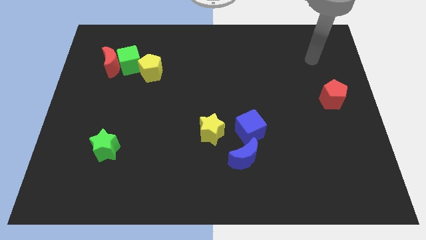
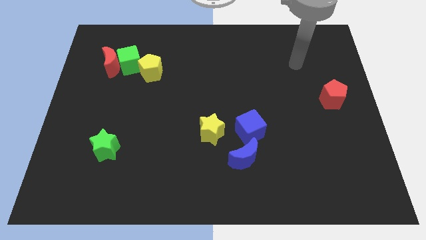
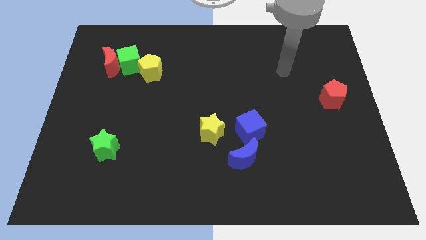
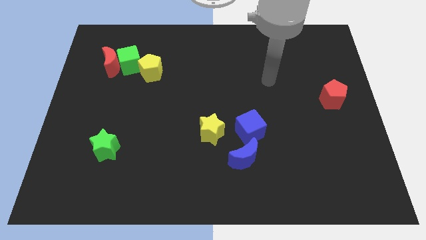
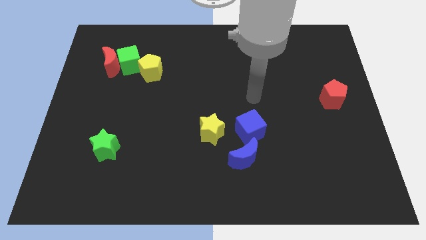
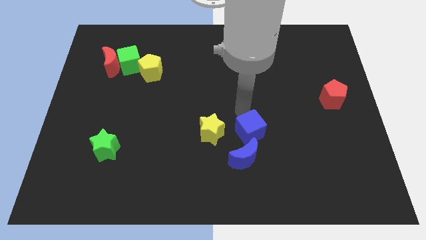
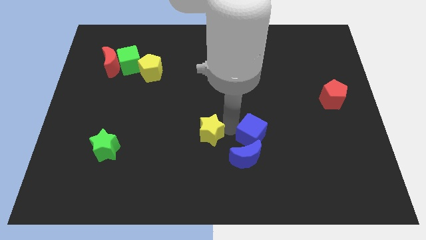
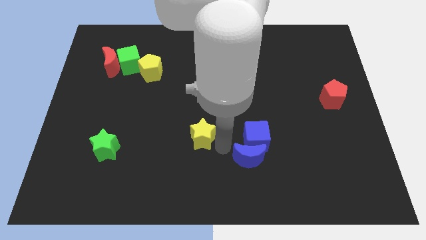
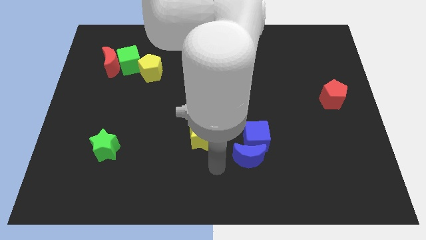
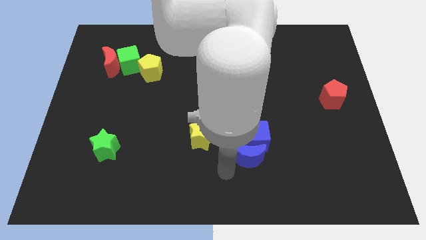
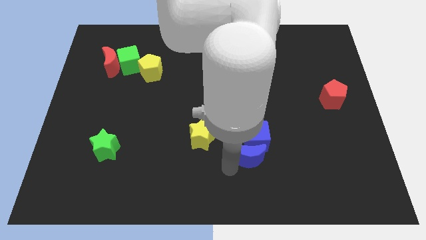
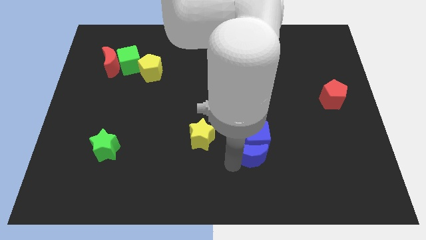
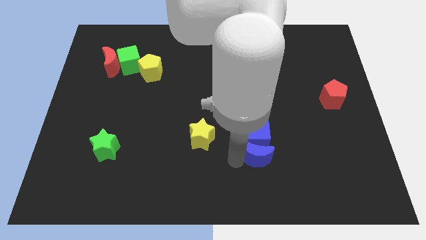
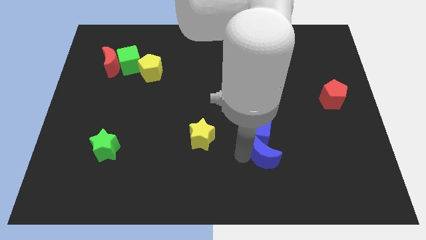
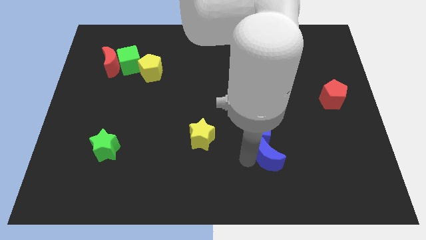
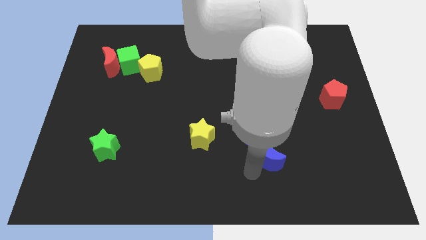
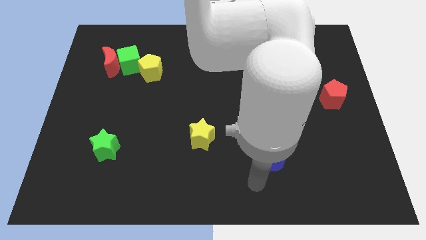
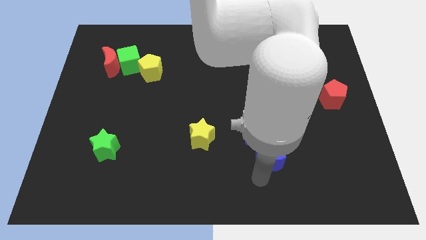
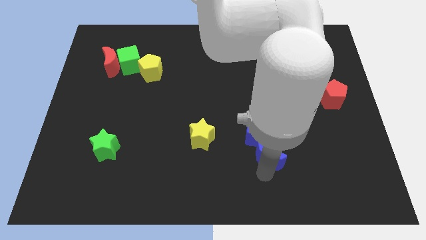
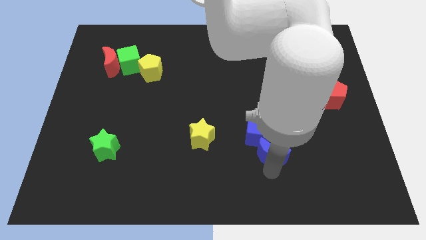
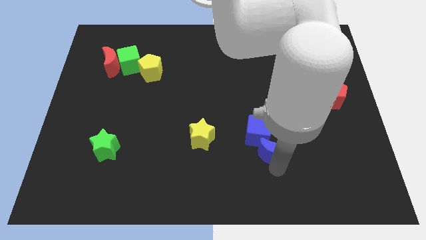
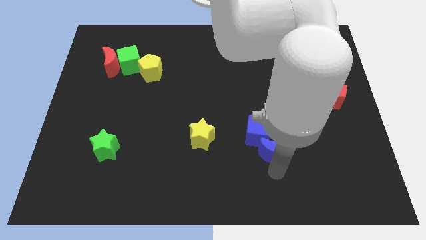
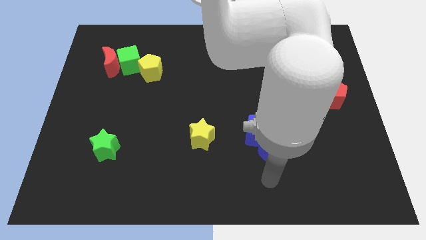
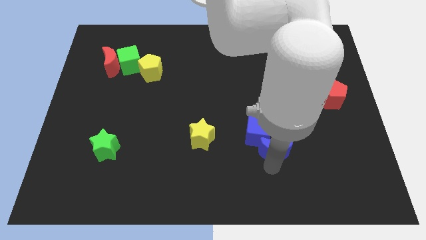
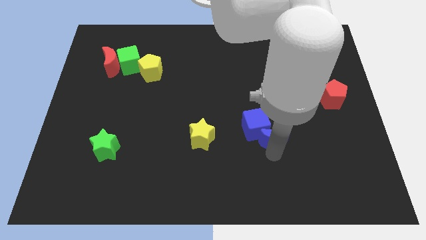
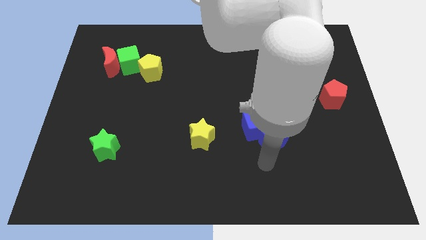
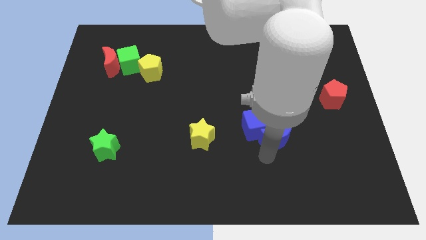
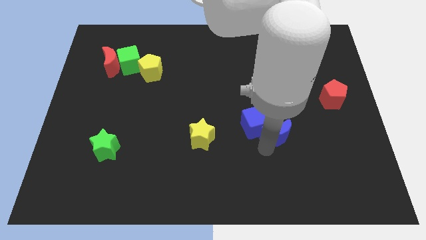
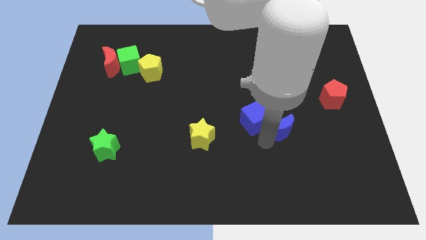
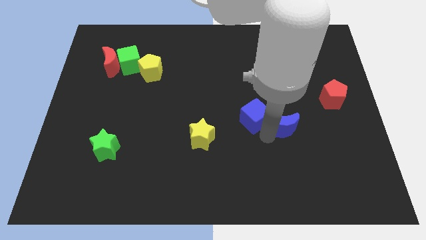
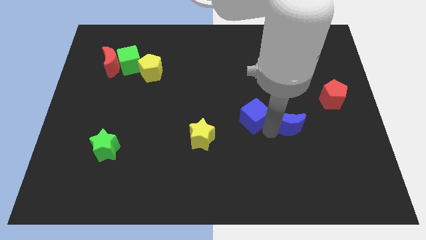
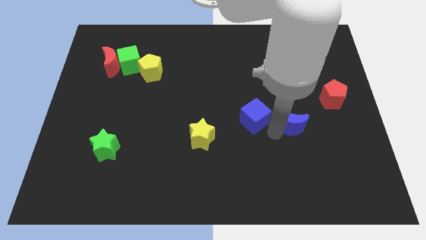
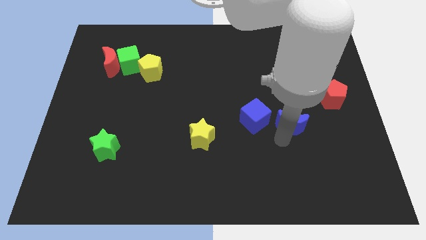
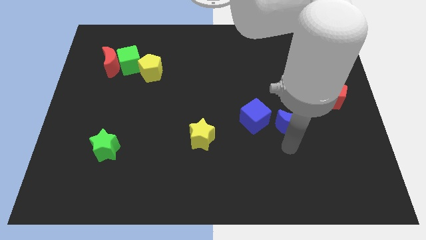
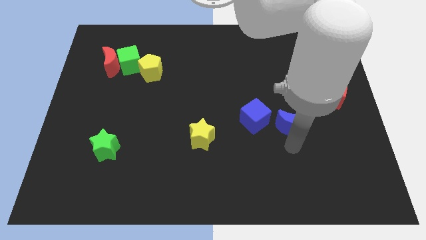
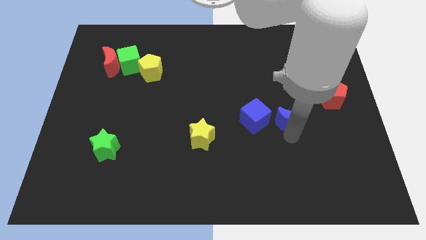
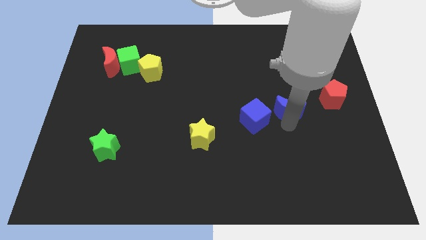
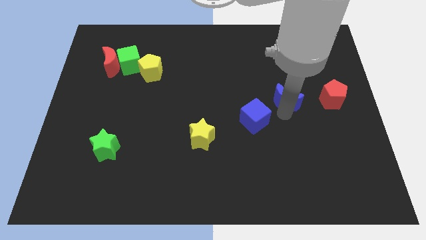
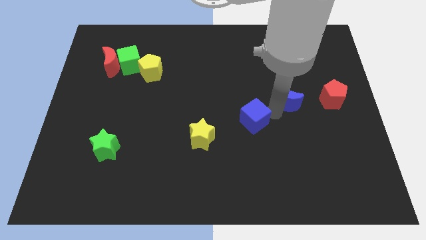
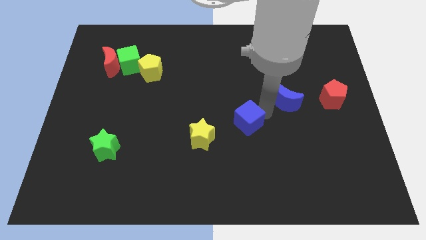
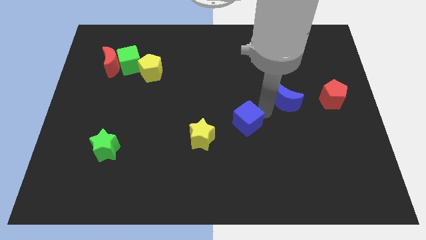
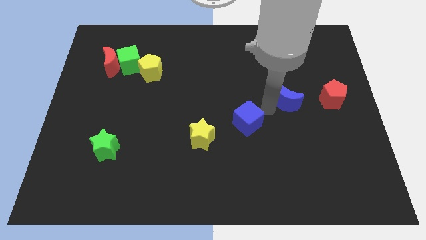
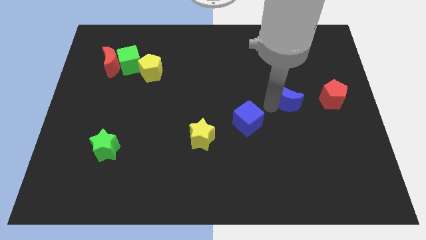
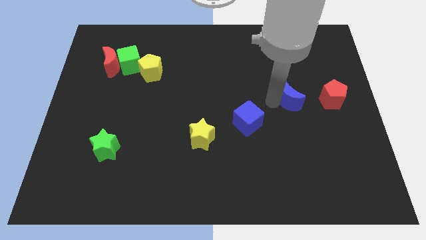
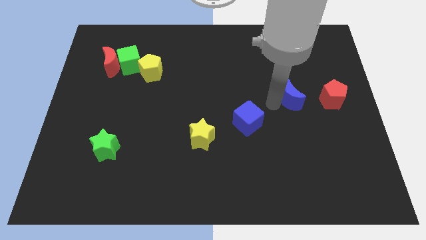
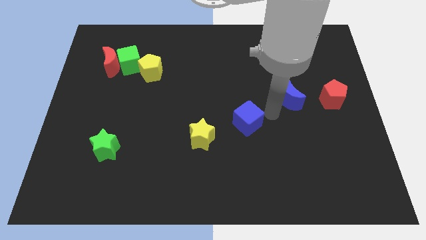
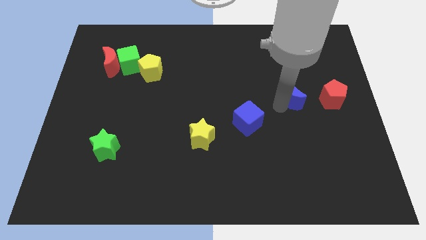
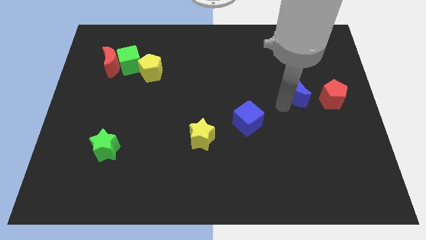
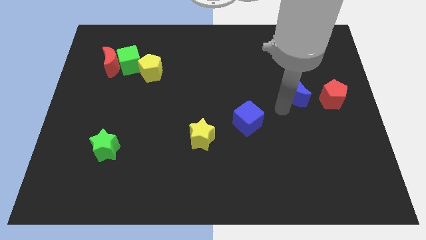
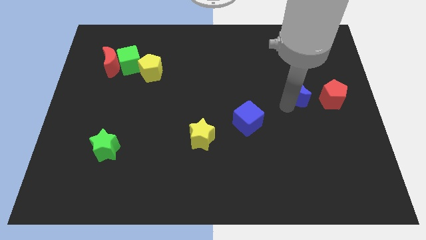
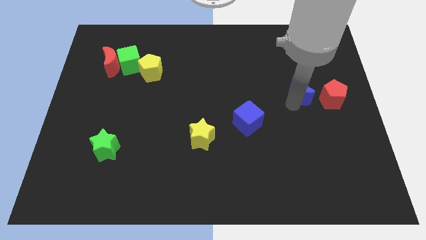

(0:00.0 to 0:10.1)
slide the blue moon to the top left side of the red pentagon

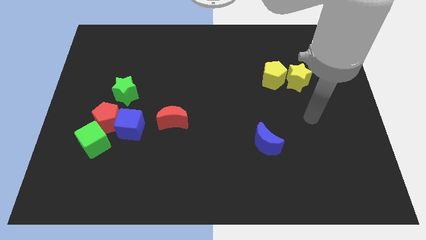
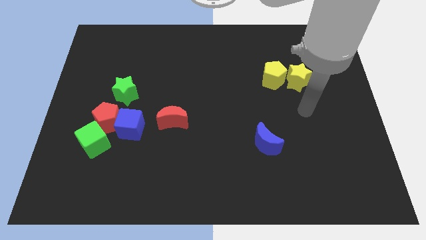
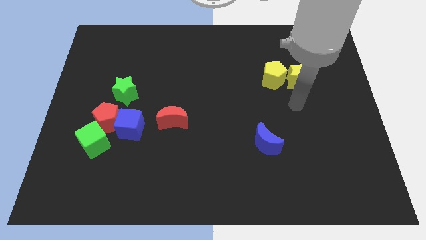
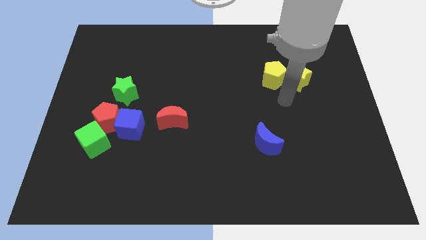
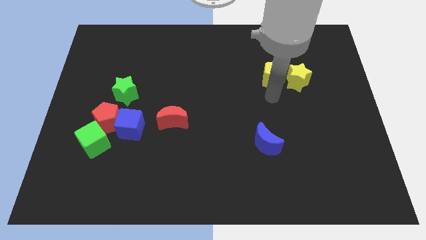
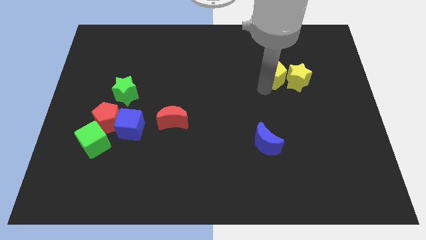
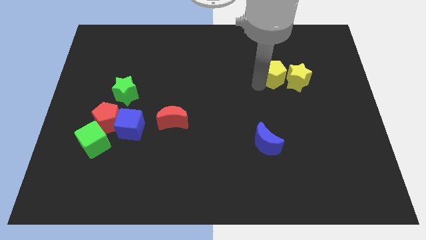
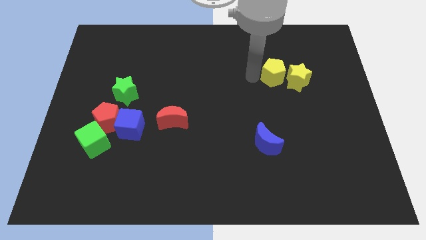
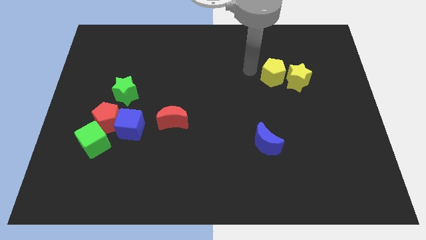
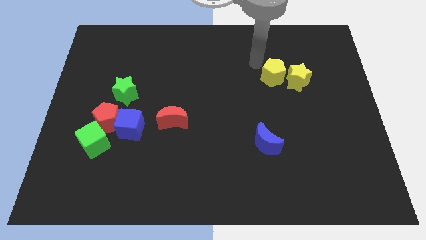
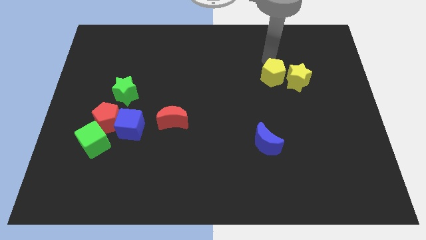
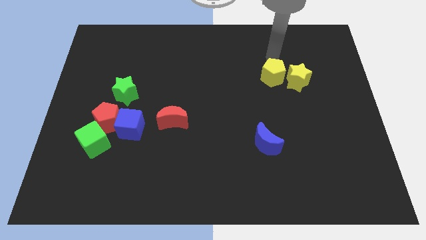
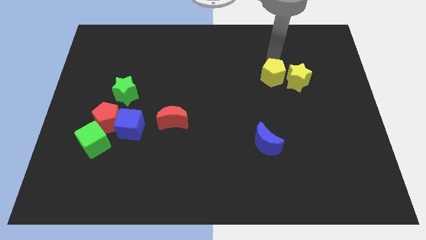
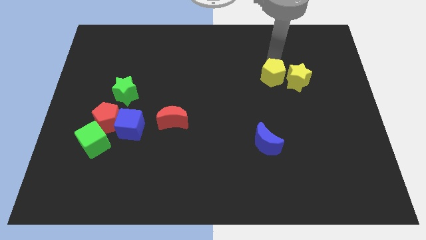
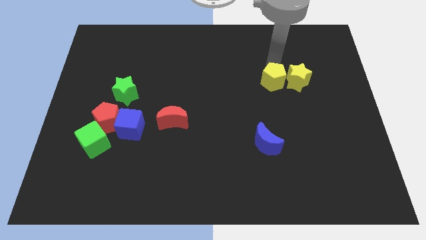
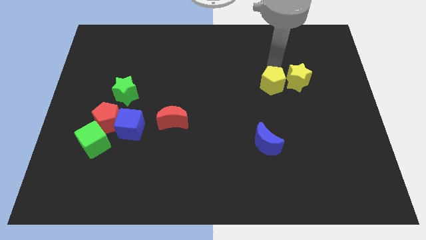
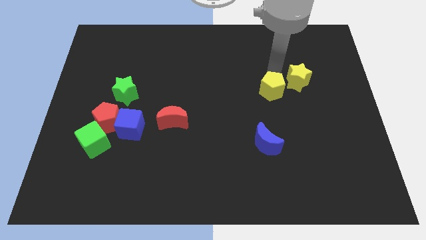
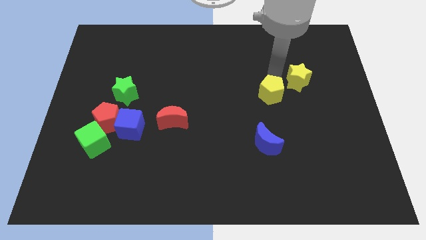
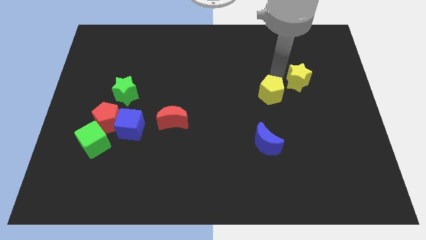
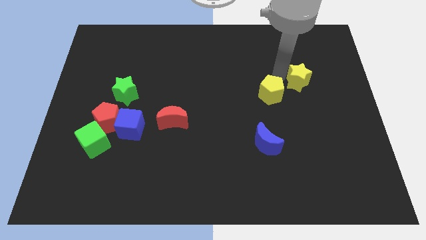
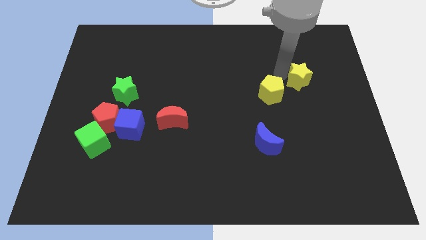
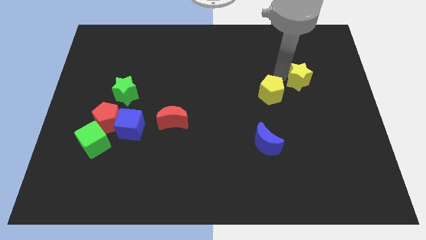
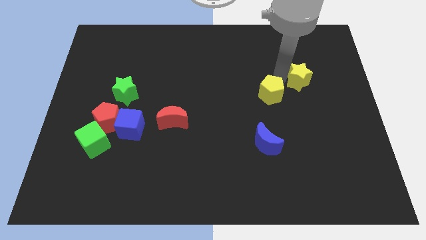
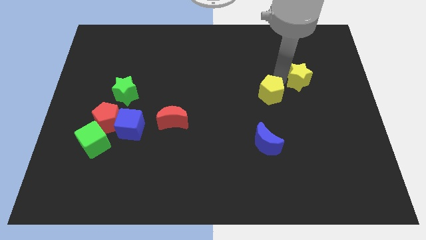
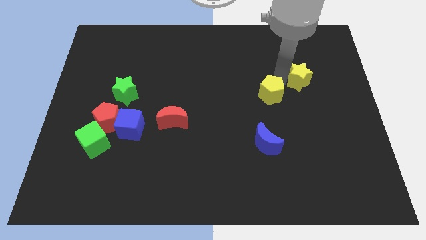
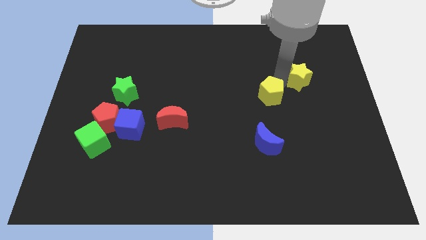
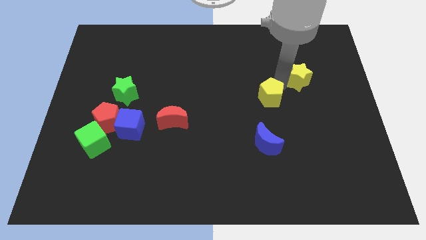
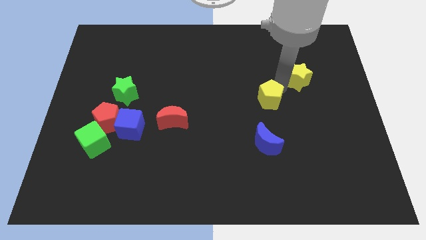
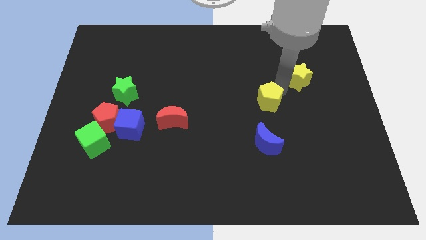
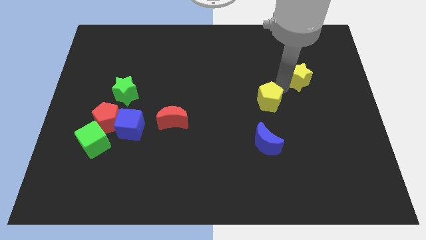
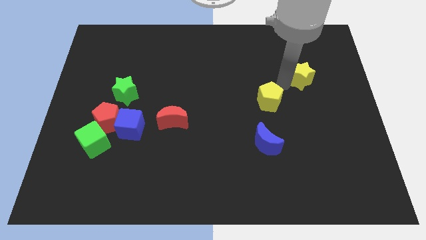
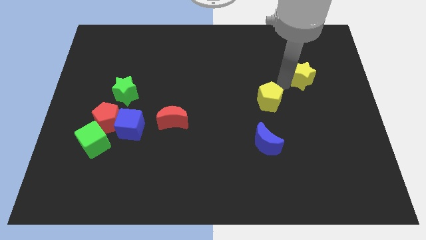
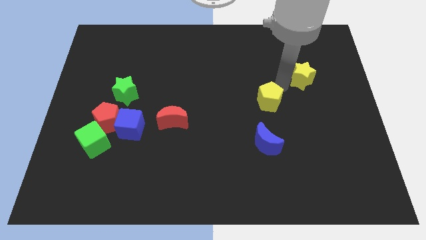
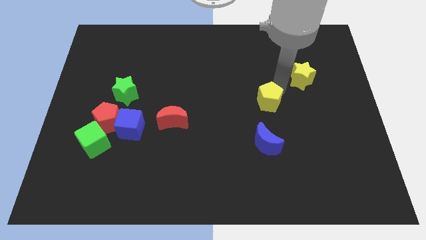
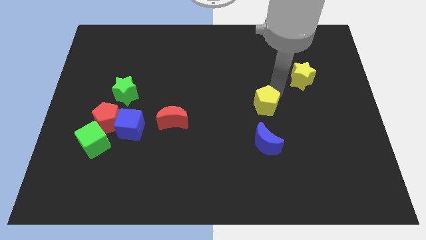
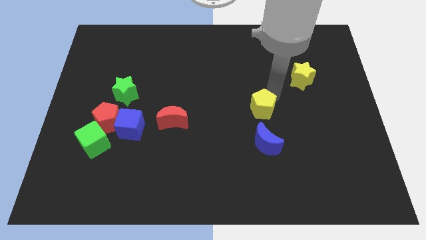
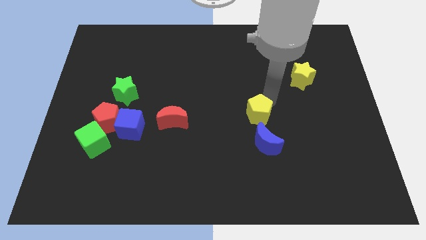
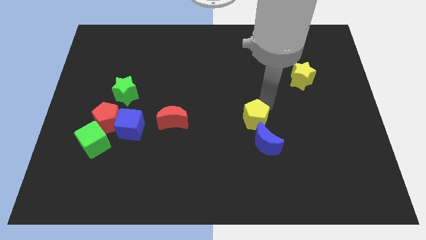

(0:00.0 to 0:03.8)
push the yellow pentagon to the top left side of the blue moon
